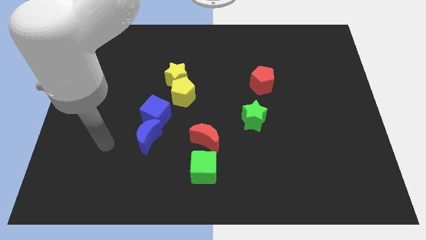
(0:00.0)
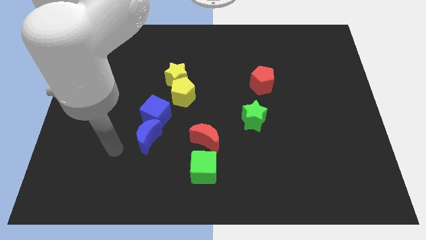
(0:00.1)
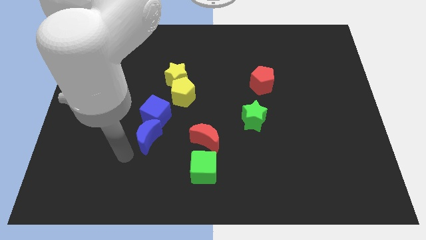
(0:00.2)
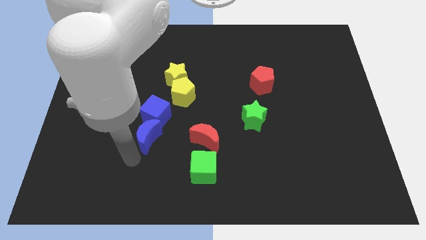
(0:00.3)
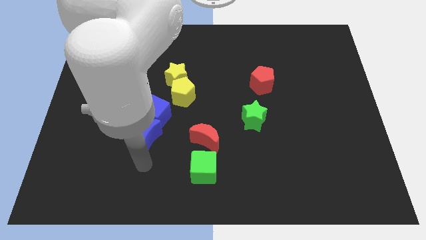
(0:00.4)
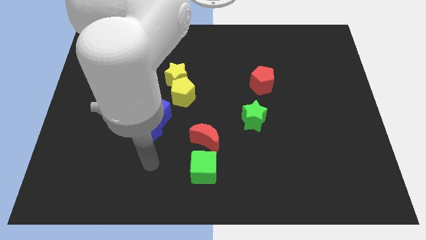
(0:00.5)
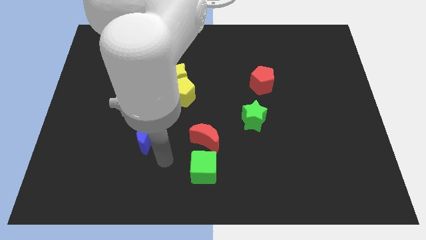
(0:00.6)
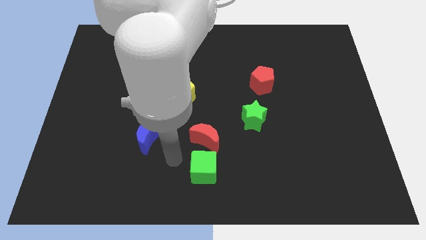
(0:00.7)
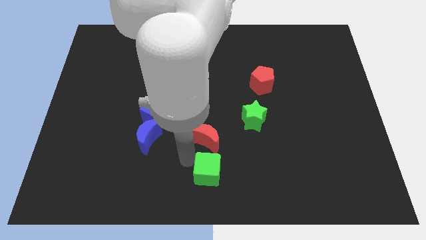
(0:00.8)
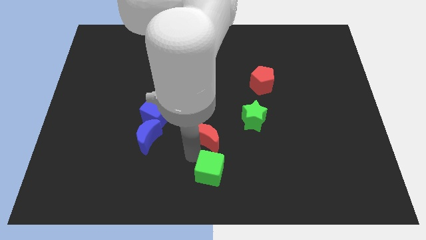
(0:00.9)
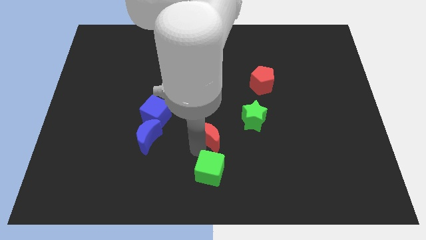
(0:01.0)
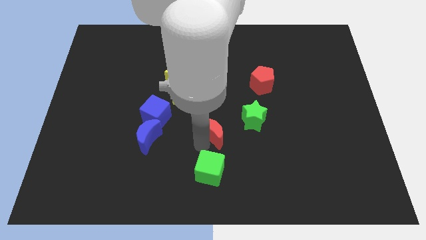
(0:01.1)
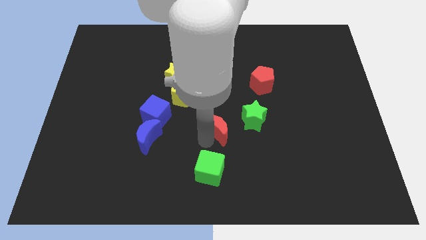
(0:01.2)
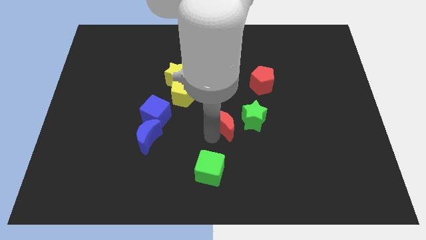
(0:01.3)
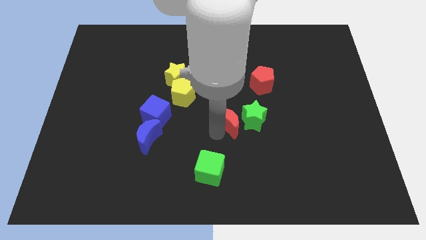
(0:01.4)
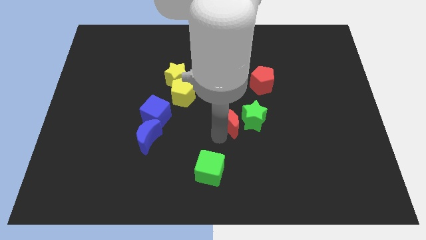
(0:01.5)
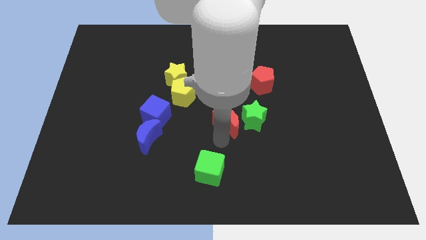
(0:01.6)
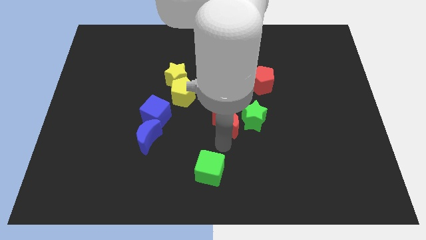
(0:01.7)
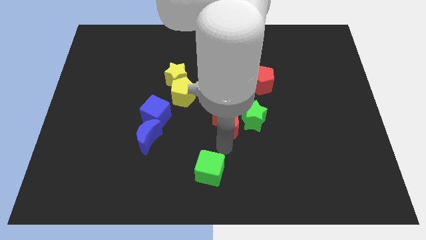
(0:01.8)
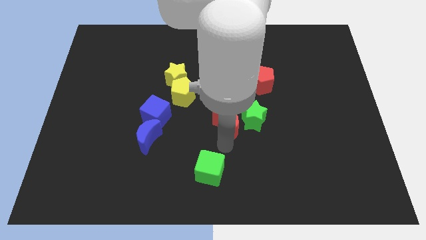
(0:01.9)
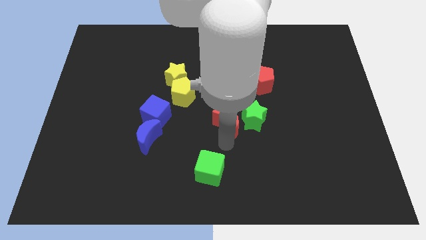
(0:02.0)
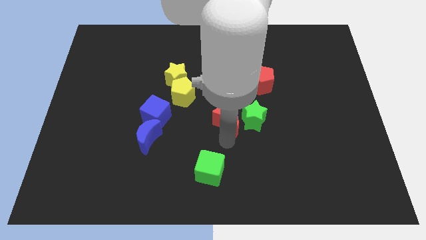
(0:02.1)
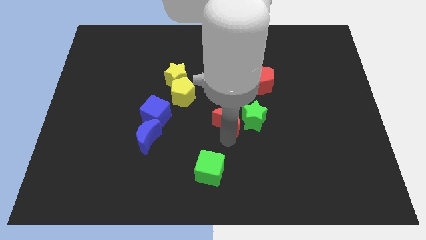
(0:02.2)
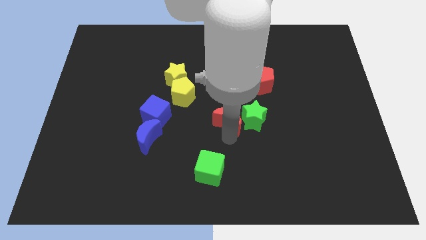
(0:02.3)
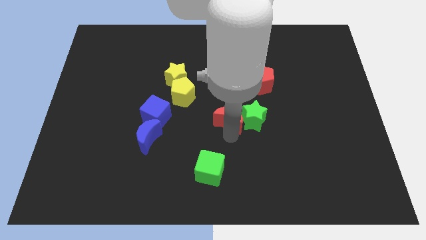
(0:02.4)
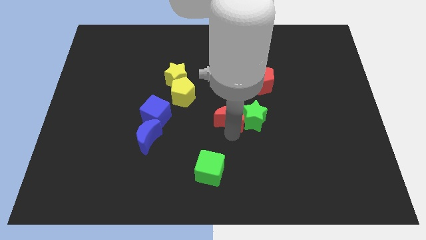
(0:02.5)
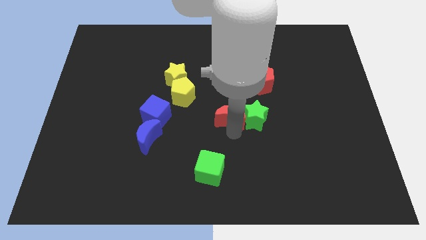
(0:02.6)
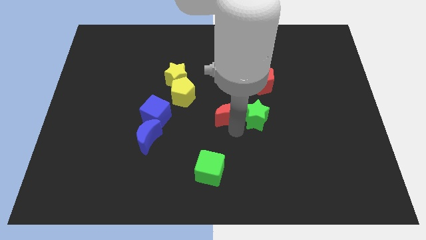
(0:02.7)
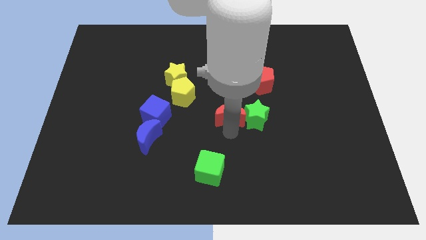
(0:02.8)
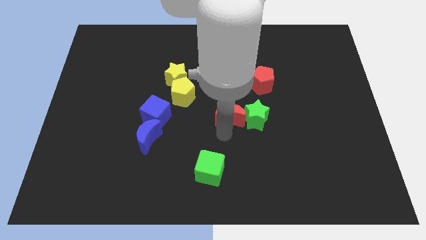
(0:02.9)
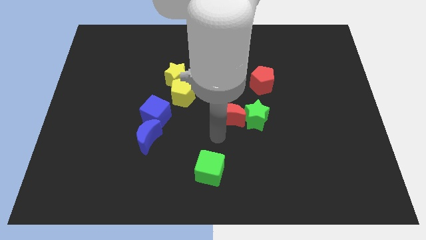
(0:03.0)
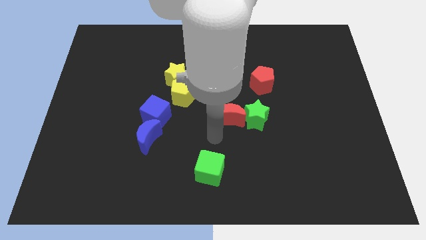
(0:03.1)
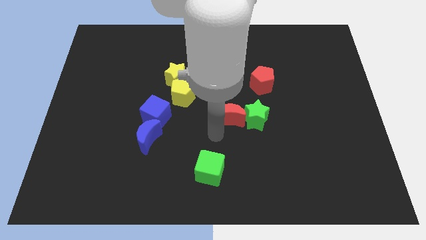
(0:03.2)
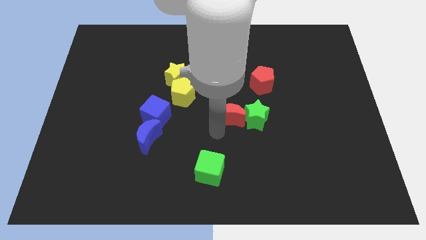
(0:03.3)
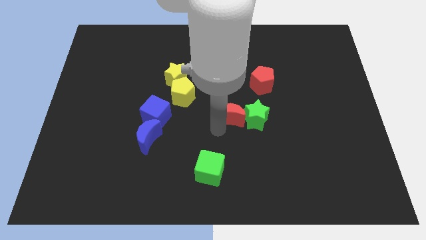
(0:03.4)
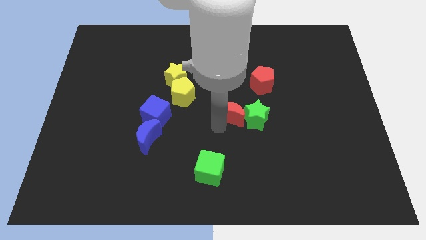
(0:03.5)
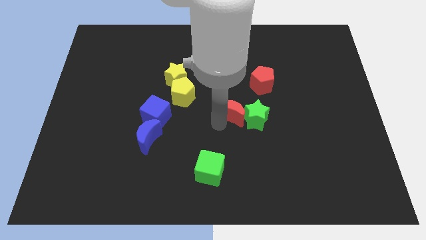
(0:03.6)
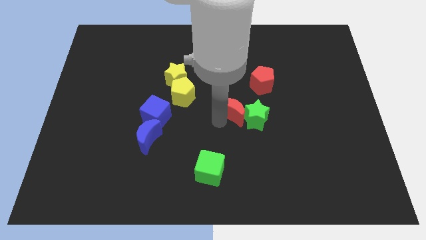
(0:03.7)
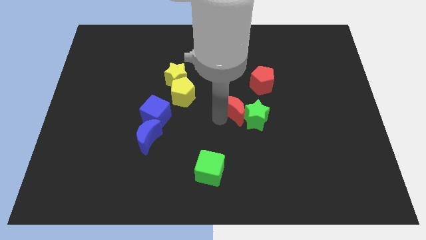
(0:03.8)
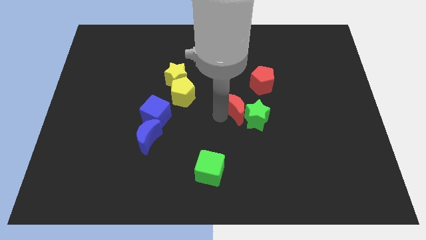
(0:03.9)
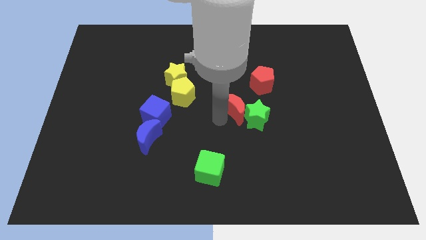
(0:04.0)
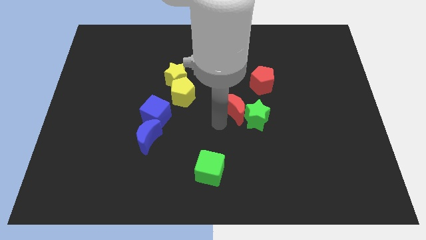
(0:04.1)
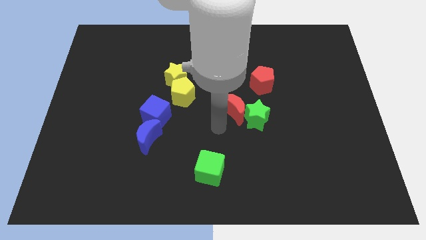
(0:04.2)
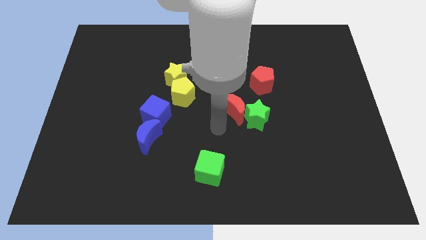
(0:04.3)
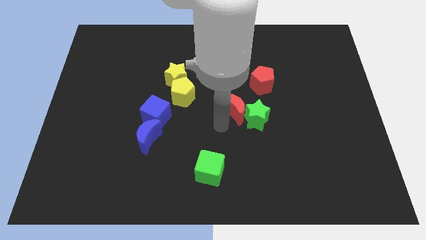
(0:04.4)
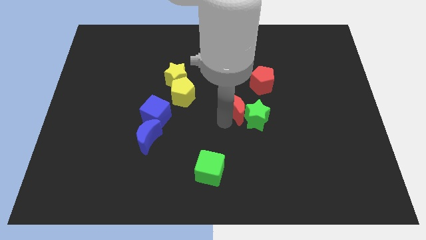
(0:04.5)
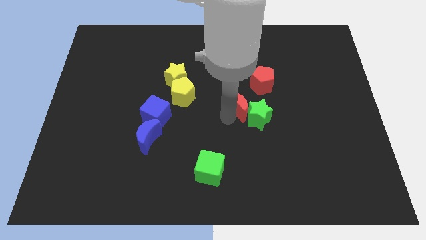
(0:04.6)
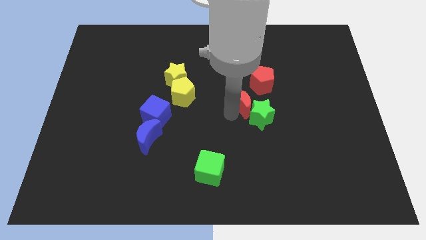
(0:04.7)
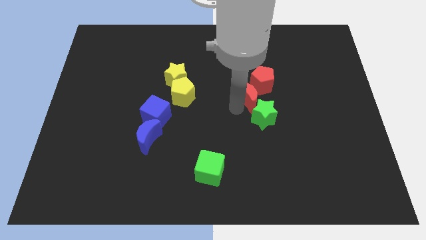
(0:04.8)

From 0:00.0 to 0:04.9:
put the red moon close to the red pentagon

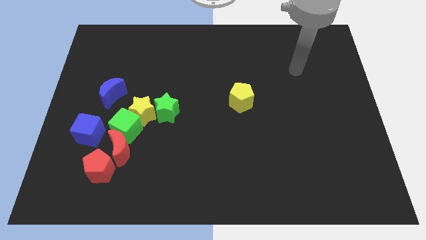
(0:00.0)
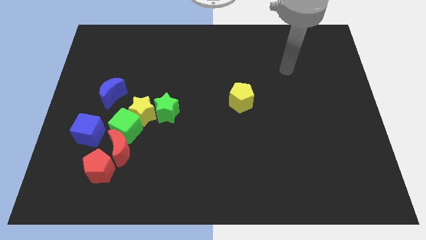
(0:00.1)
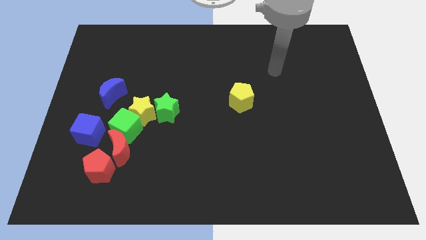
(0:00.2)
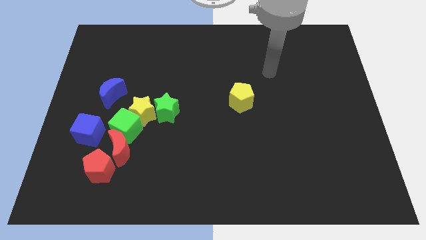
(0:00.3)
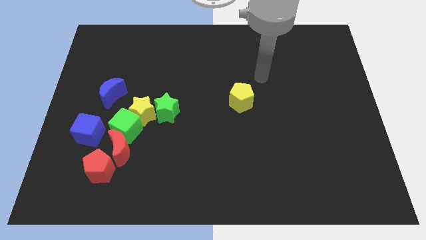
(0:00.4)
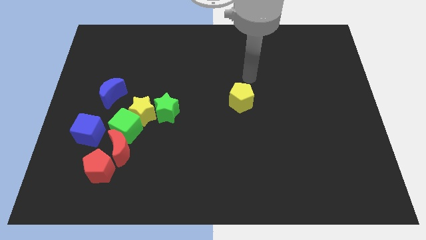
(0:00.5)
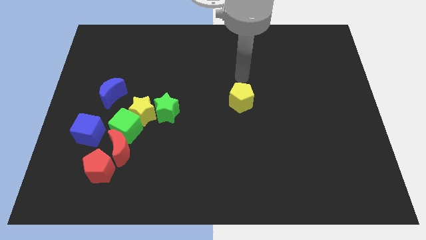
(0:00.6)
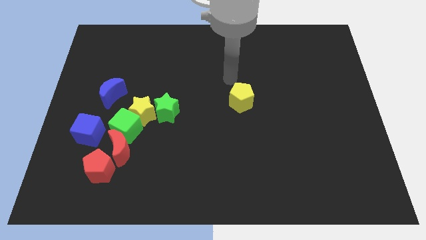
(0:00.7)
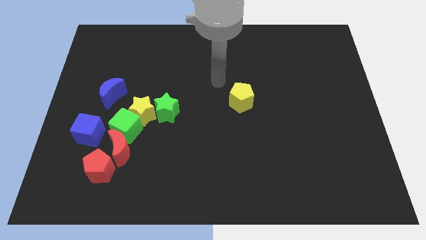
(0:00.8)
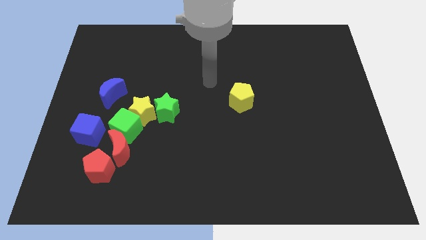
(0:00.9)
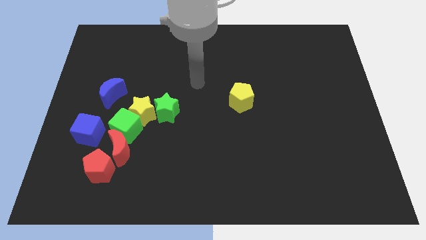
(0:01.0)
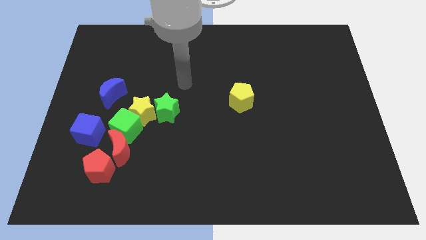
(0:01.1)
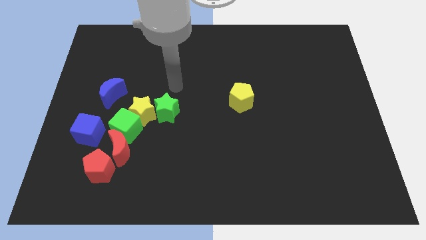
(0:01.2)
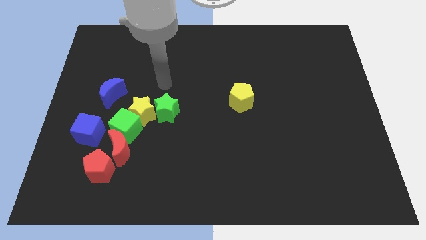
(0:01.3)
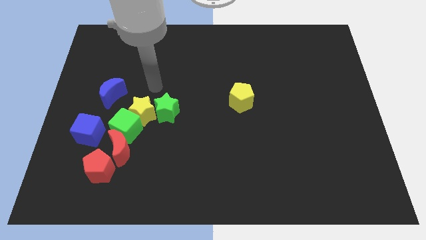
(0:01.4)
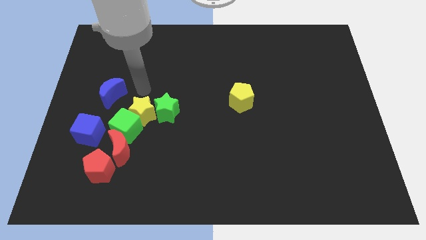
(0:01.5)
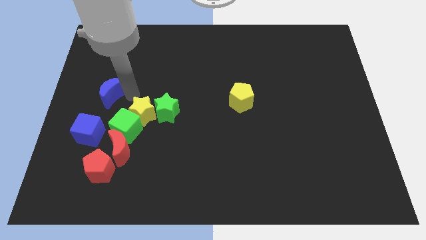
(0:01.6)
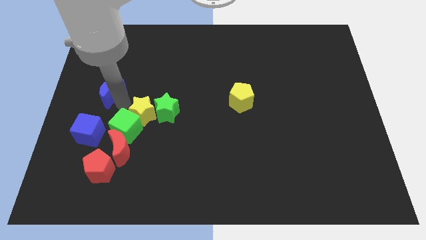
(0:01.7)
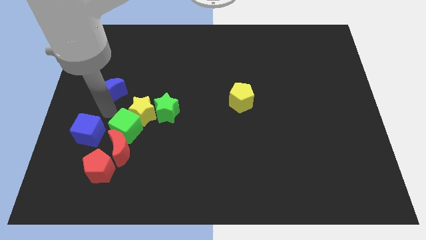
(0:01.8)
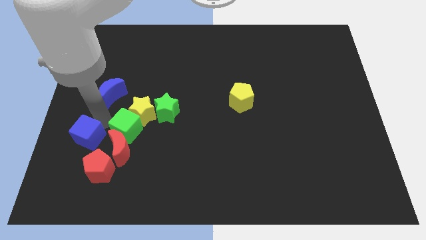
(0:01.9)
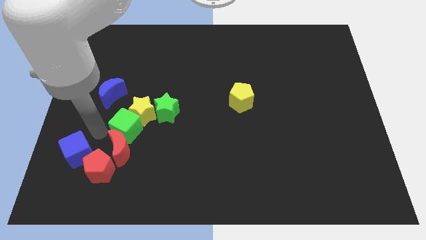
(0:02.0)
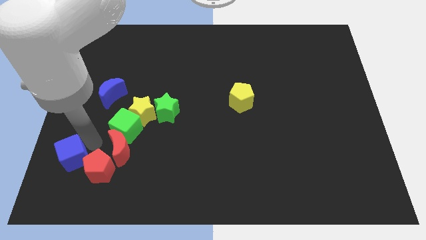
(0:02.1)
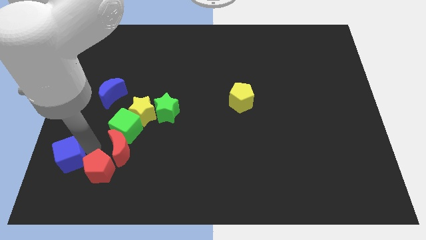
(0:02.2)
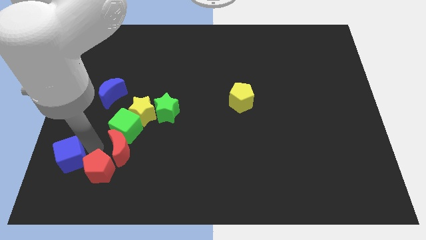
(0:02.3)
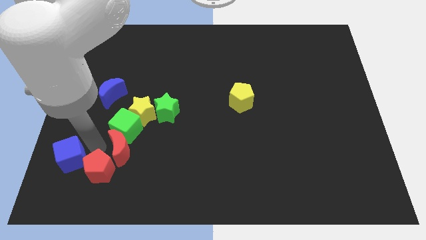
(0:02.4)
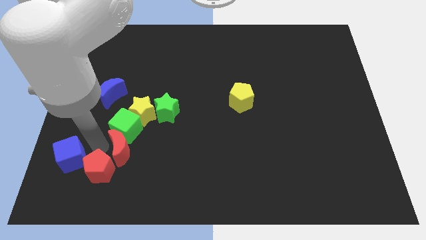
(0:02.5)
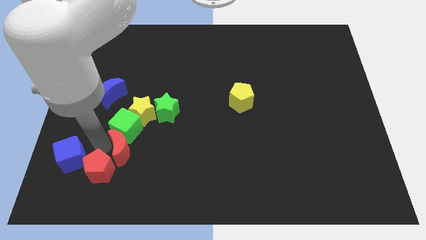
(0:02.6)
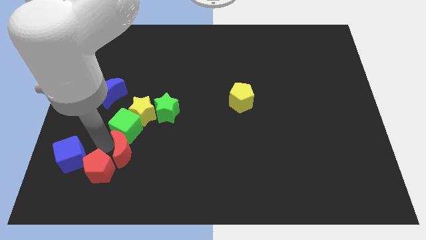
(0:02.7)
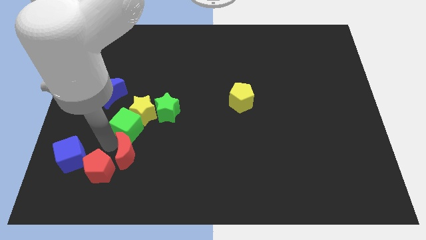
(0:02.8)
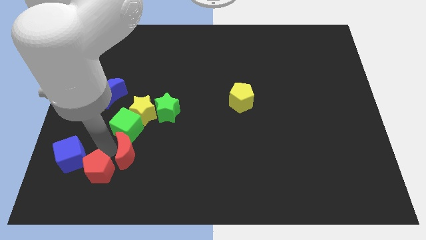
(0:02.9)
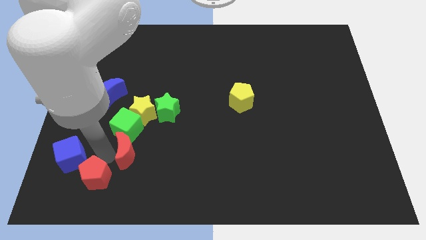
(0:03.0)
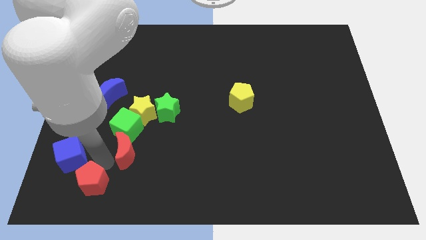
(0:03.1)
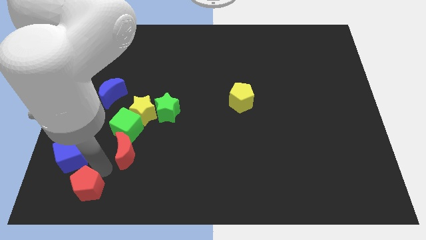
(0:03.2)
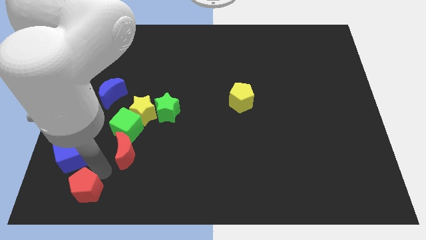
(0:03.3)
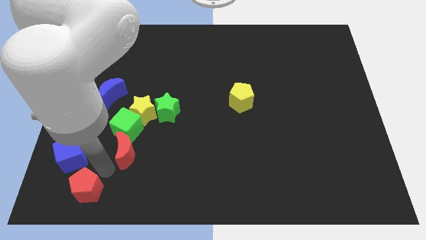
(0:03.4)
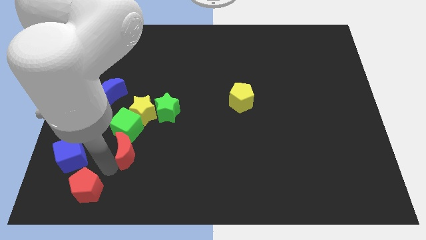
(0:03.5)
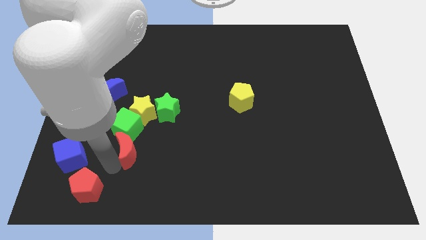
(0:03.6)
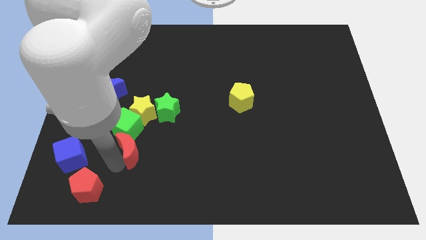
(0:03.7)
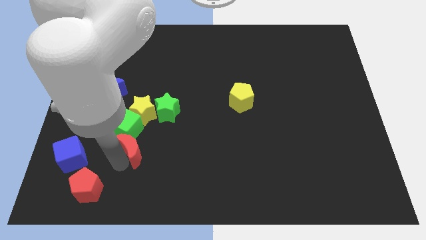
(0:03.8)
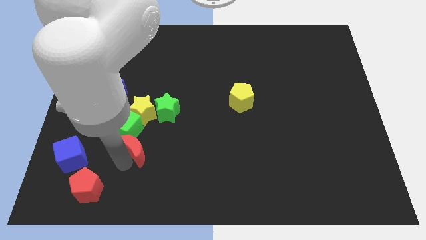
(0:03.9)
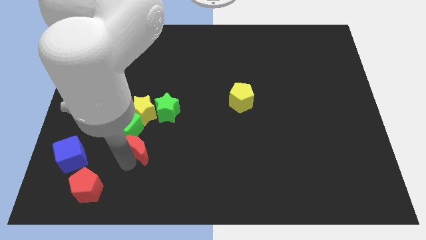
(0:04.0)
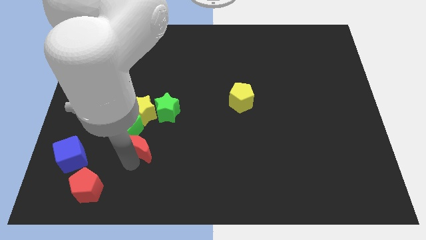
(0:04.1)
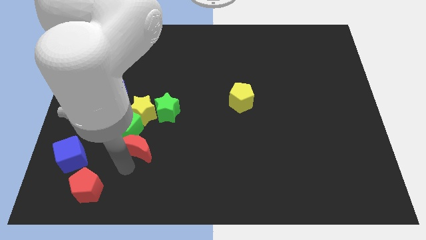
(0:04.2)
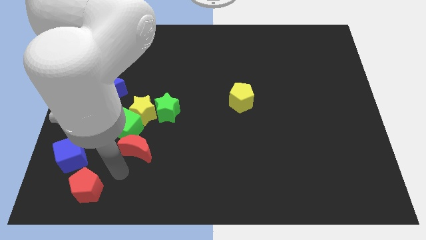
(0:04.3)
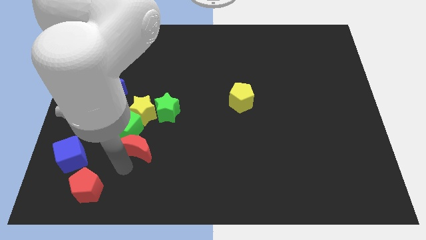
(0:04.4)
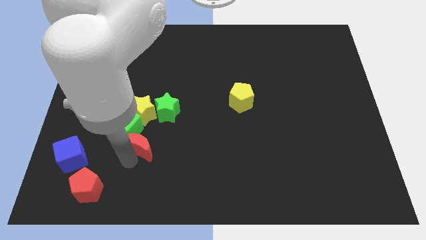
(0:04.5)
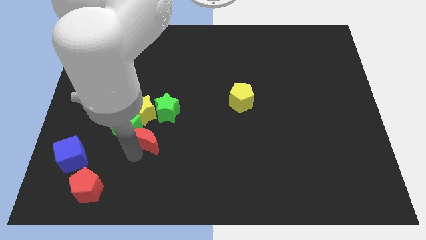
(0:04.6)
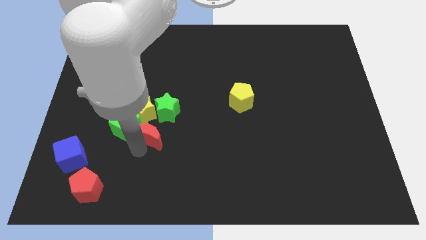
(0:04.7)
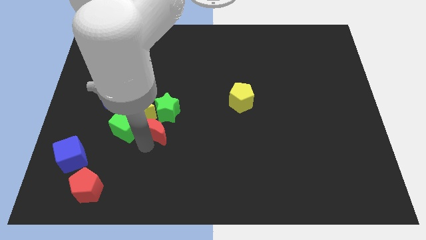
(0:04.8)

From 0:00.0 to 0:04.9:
put the red moon close to the yellow star
